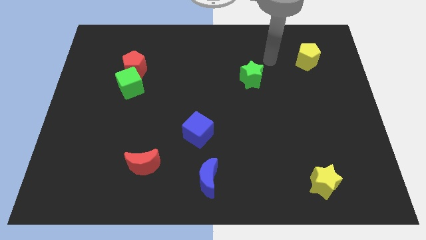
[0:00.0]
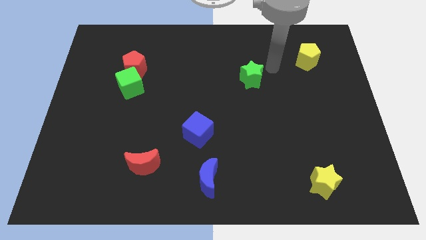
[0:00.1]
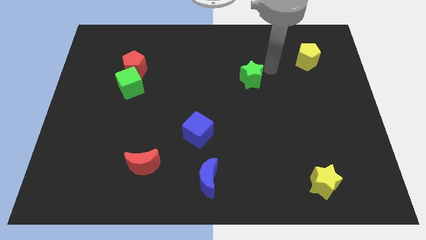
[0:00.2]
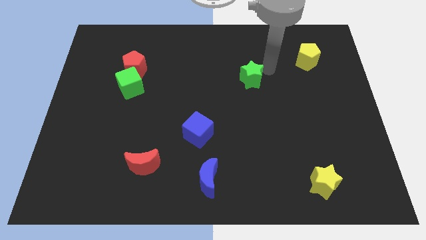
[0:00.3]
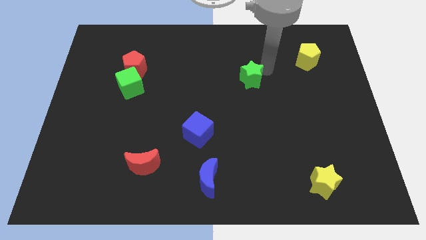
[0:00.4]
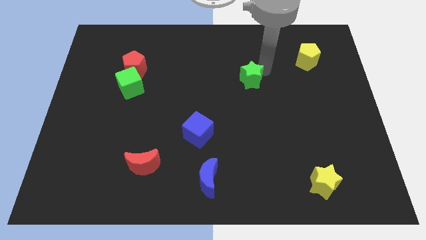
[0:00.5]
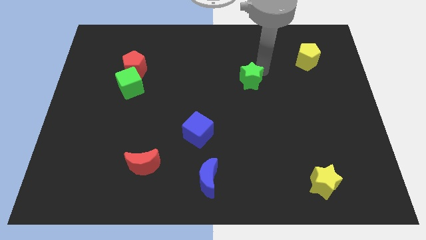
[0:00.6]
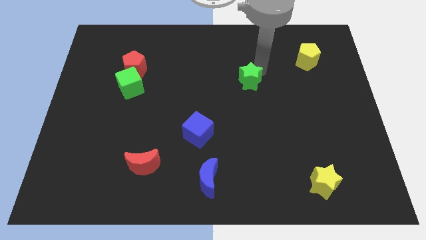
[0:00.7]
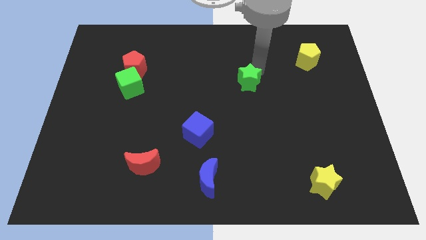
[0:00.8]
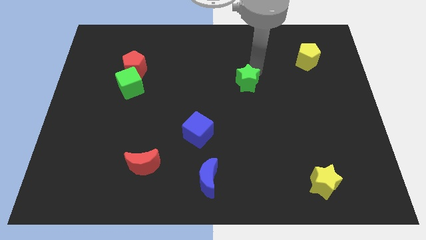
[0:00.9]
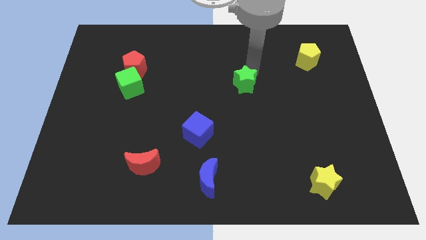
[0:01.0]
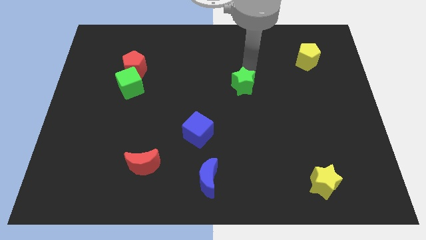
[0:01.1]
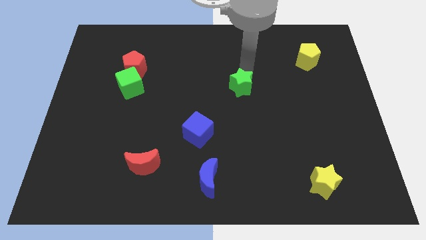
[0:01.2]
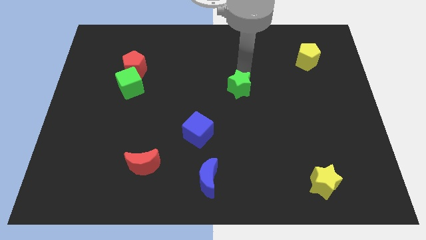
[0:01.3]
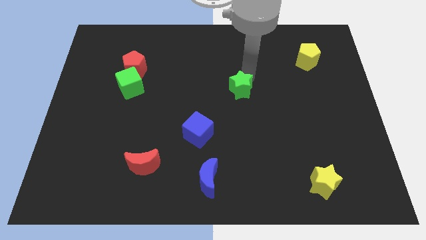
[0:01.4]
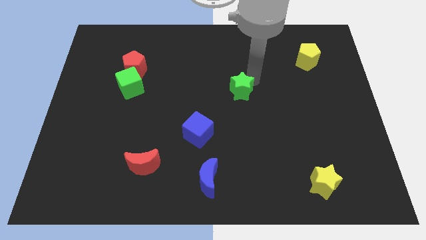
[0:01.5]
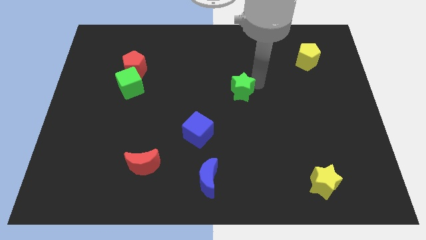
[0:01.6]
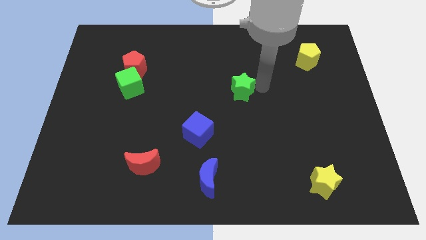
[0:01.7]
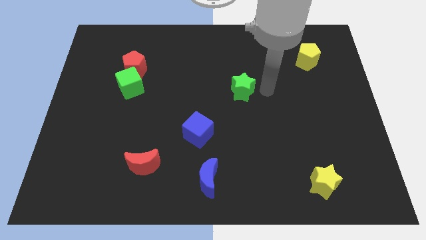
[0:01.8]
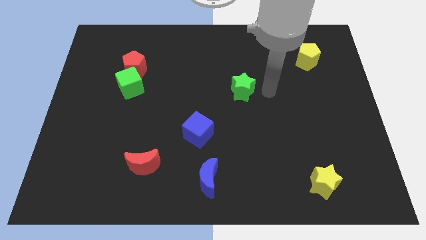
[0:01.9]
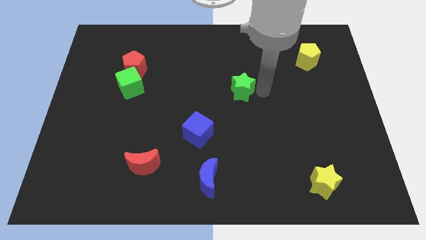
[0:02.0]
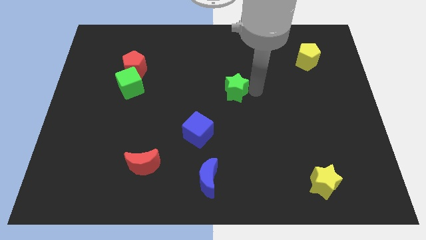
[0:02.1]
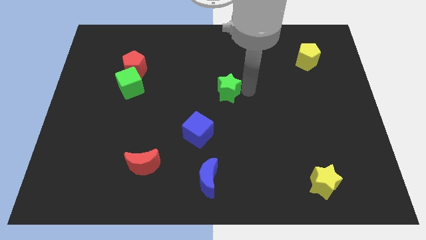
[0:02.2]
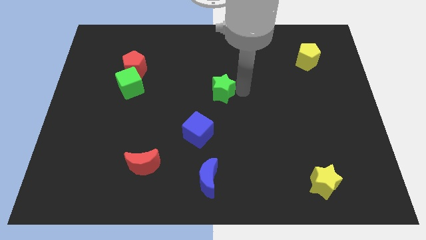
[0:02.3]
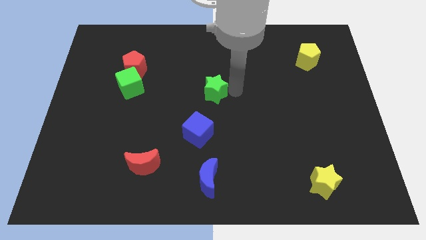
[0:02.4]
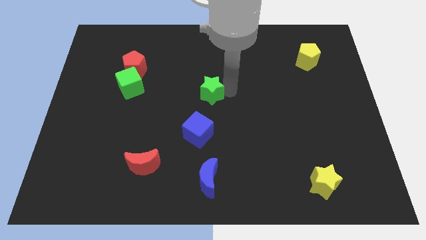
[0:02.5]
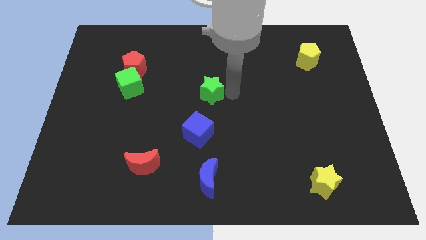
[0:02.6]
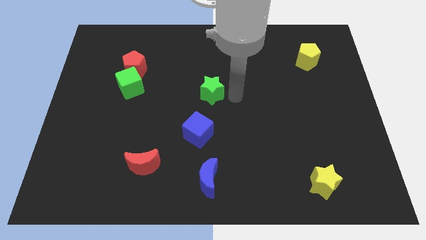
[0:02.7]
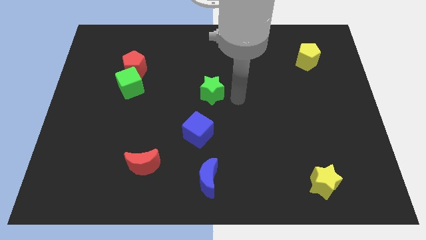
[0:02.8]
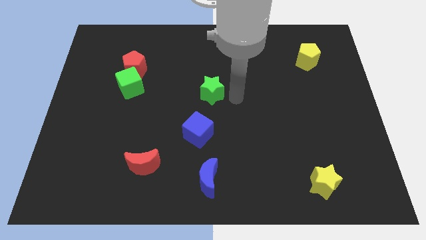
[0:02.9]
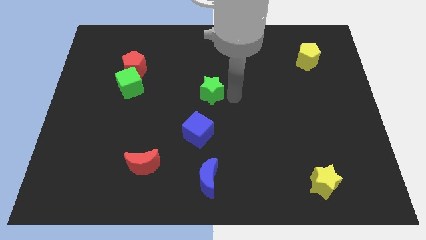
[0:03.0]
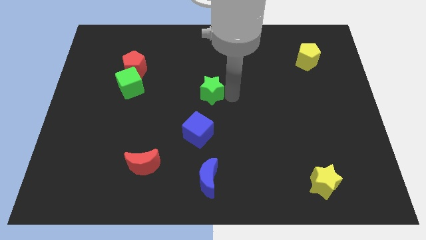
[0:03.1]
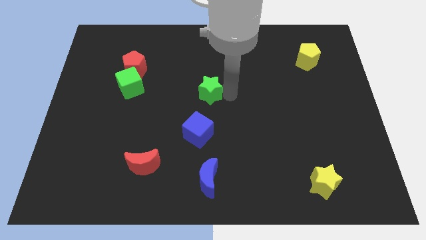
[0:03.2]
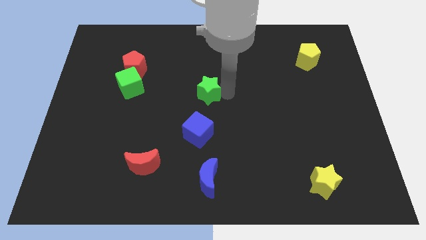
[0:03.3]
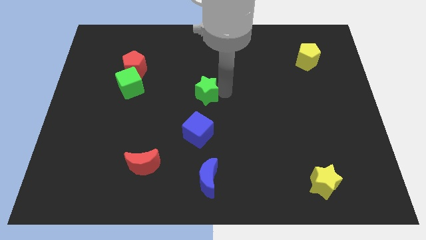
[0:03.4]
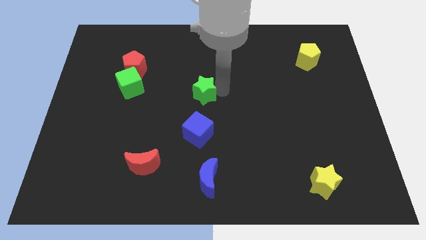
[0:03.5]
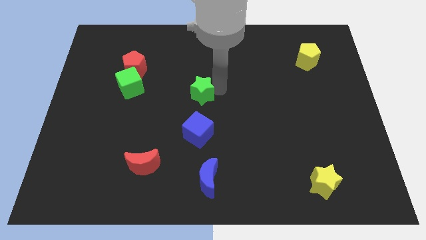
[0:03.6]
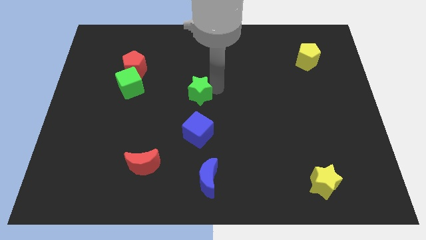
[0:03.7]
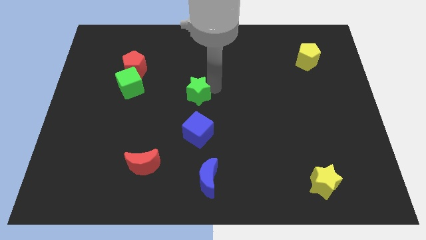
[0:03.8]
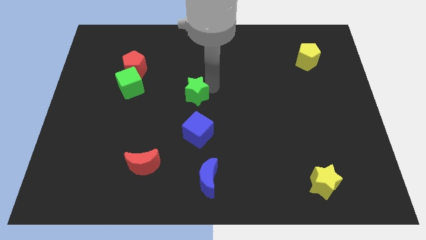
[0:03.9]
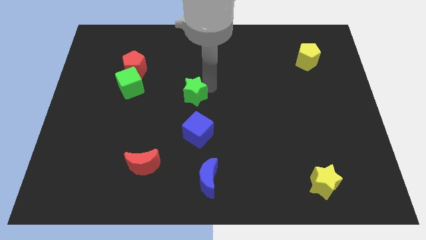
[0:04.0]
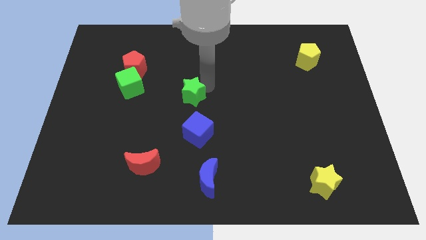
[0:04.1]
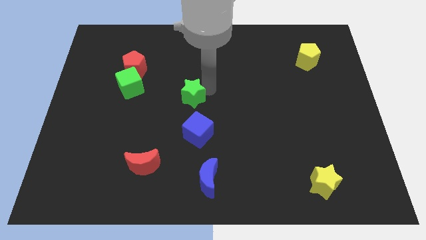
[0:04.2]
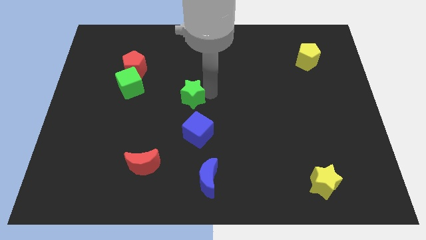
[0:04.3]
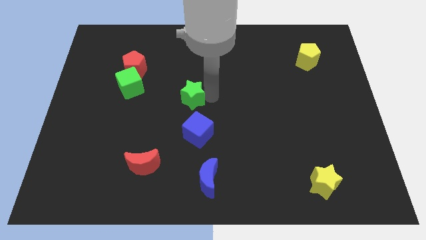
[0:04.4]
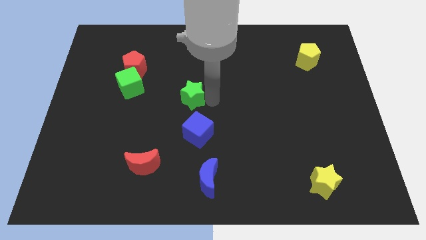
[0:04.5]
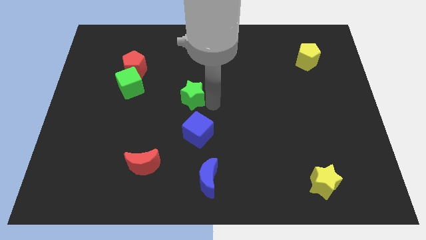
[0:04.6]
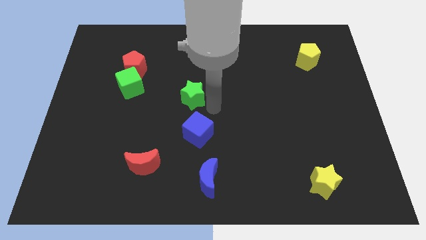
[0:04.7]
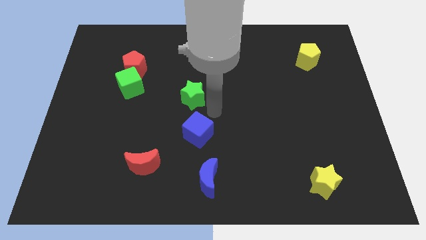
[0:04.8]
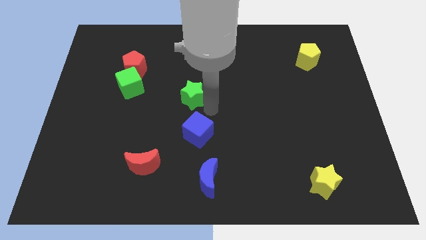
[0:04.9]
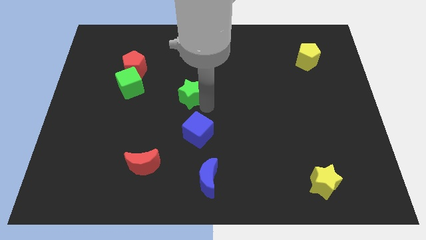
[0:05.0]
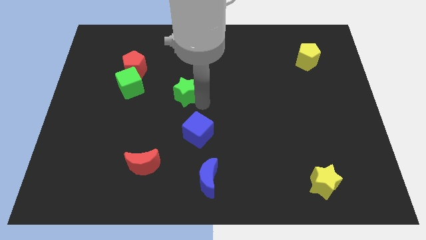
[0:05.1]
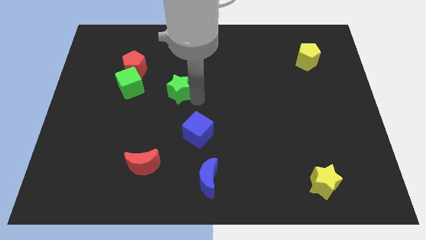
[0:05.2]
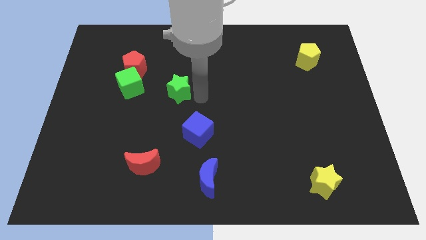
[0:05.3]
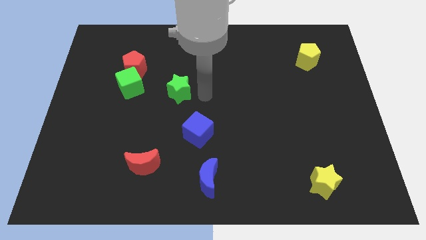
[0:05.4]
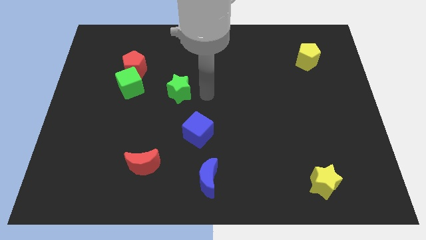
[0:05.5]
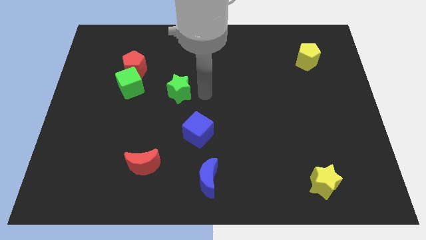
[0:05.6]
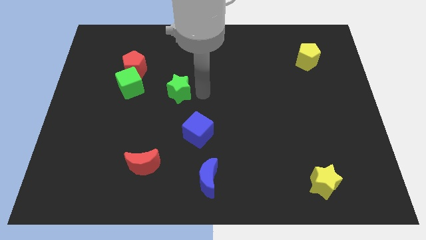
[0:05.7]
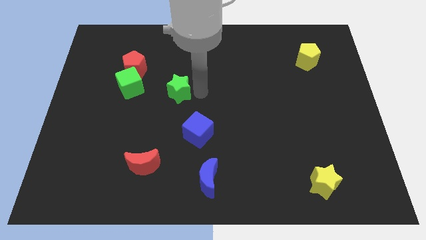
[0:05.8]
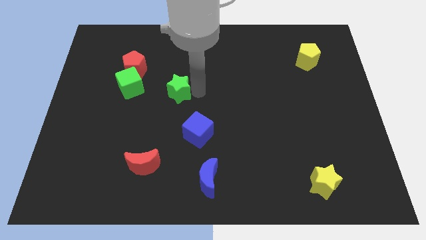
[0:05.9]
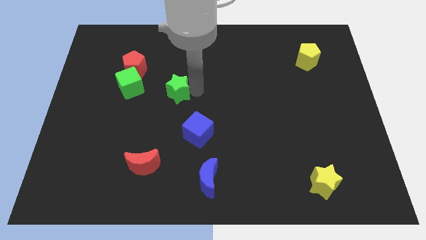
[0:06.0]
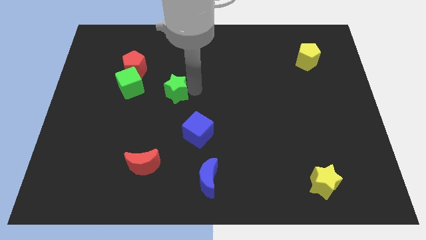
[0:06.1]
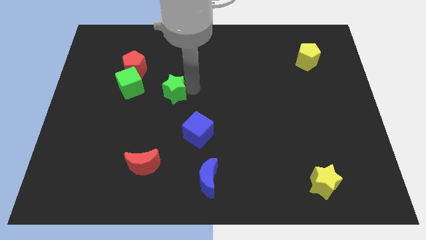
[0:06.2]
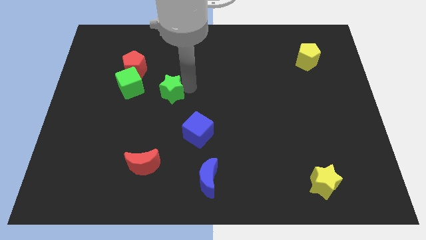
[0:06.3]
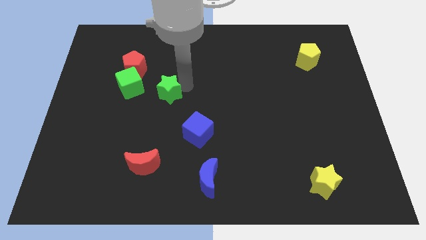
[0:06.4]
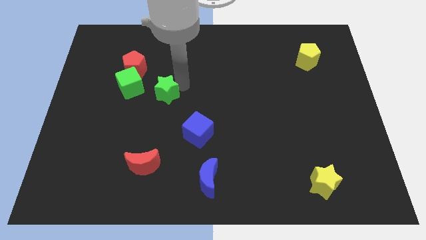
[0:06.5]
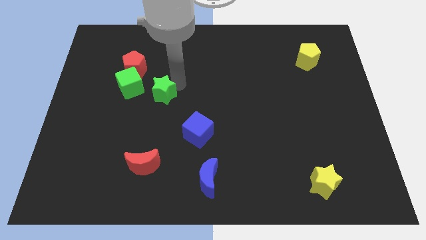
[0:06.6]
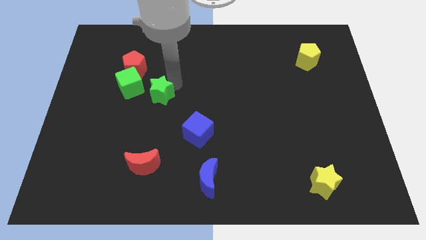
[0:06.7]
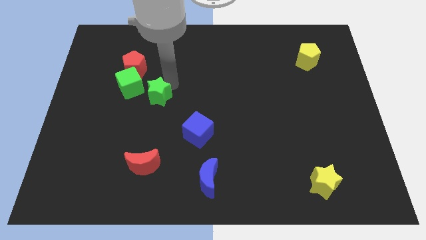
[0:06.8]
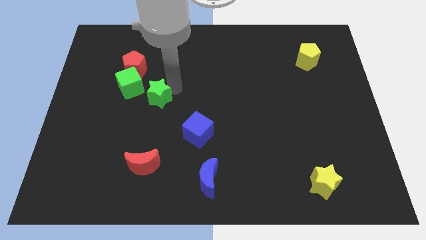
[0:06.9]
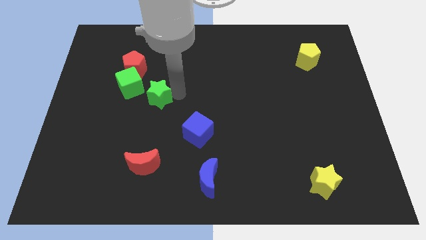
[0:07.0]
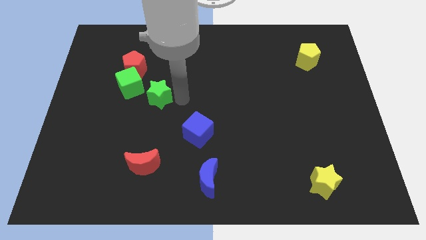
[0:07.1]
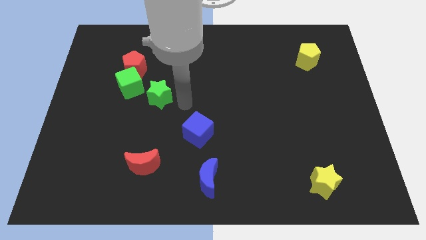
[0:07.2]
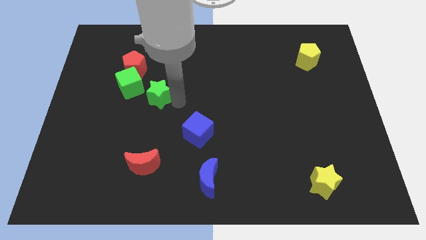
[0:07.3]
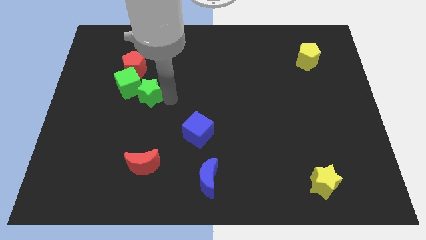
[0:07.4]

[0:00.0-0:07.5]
move the green star next to the green cube
